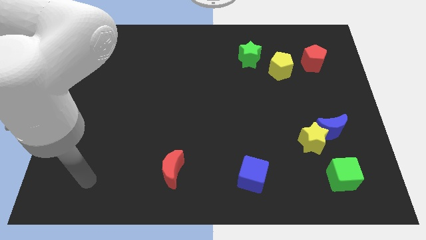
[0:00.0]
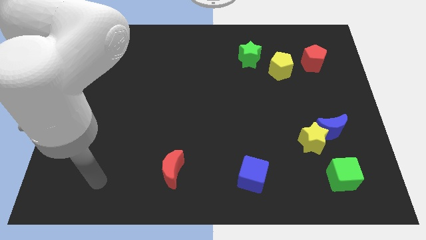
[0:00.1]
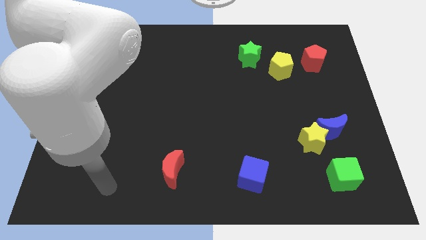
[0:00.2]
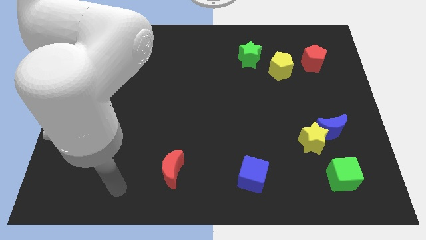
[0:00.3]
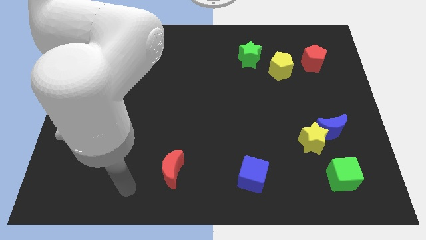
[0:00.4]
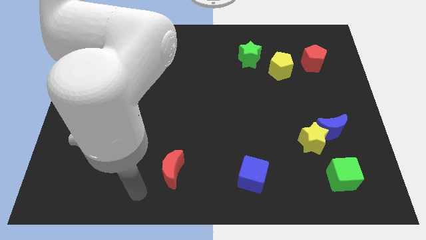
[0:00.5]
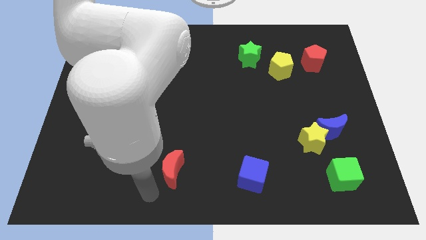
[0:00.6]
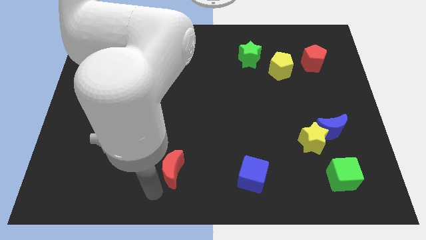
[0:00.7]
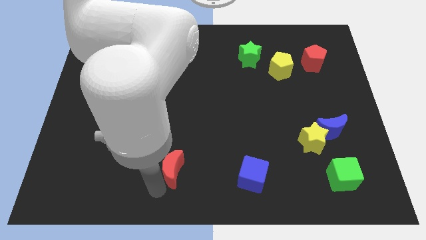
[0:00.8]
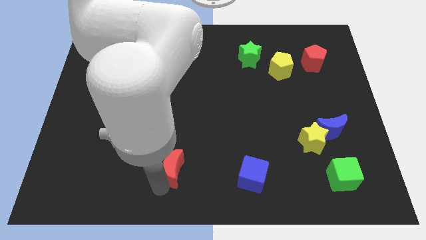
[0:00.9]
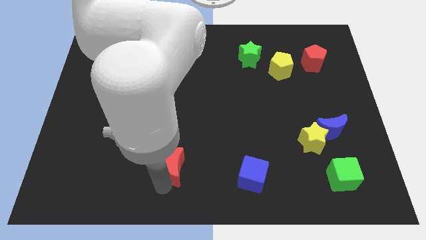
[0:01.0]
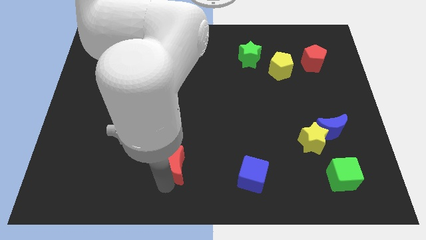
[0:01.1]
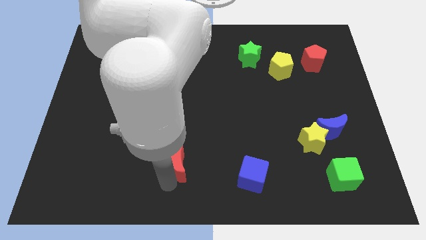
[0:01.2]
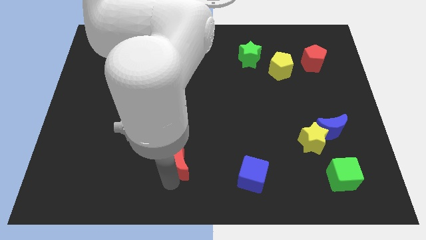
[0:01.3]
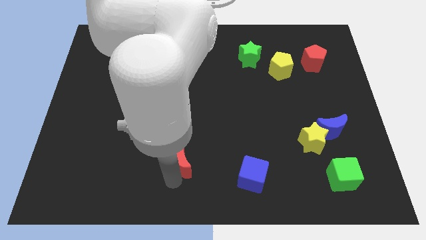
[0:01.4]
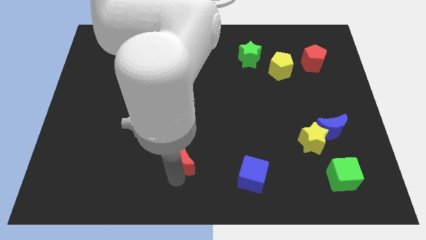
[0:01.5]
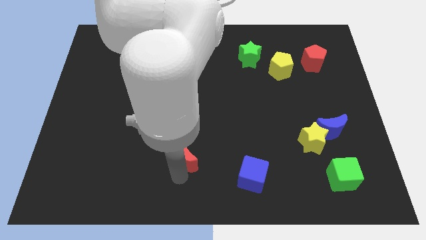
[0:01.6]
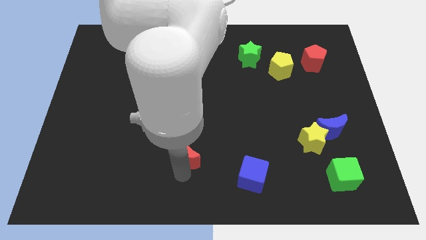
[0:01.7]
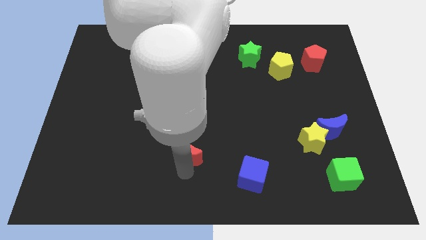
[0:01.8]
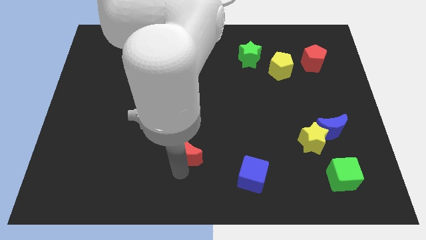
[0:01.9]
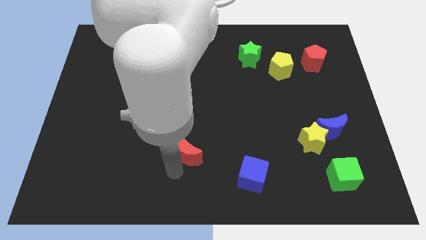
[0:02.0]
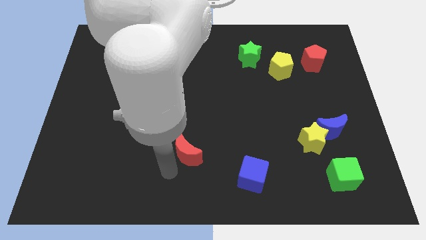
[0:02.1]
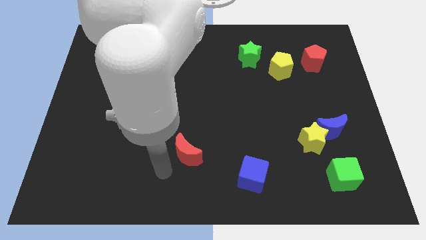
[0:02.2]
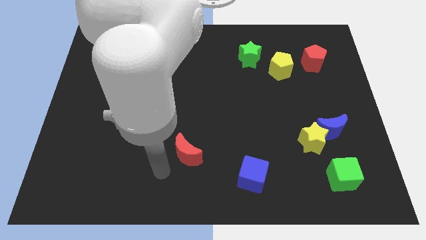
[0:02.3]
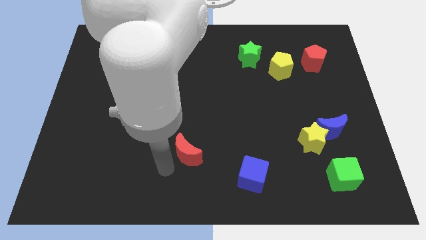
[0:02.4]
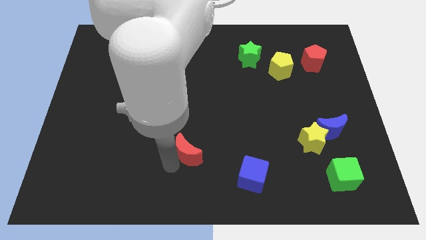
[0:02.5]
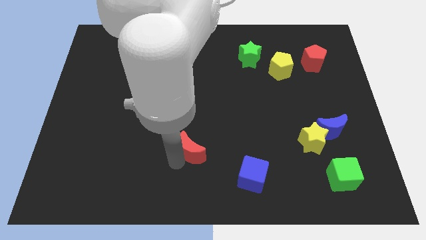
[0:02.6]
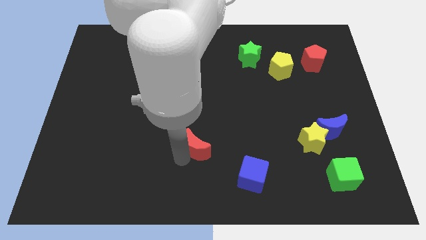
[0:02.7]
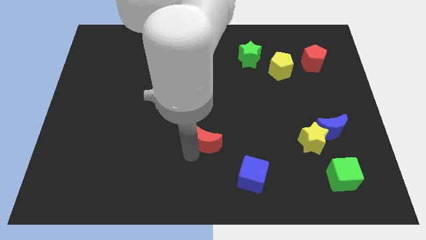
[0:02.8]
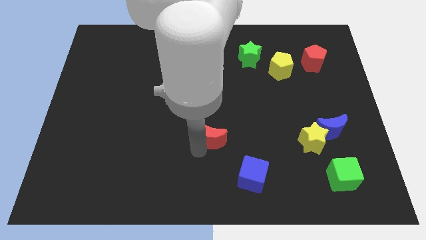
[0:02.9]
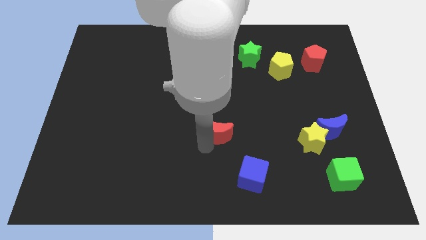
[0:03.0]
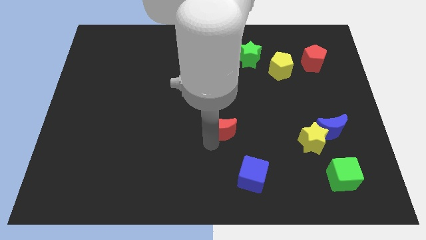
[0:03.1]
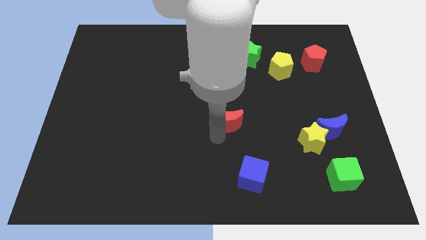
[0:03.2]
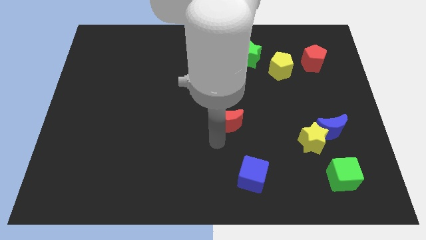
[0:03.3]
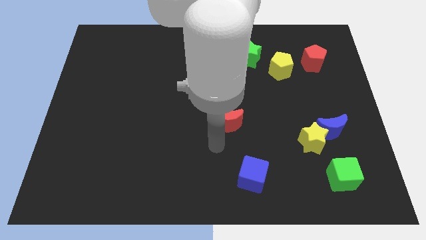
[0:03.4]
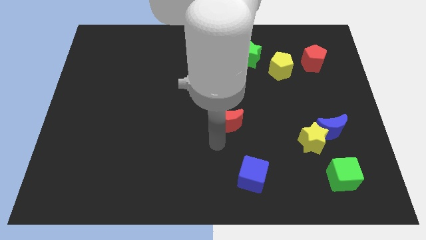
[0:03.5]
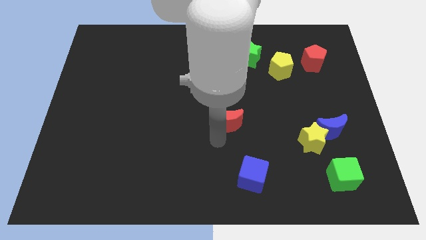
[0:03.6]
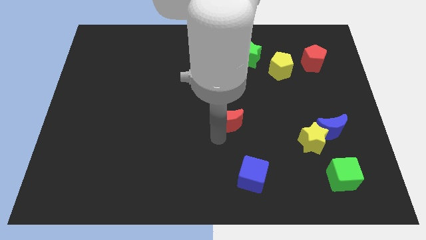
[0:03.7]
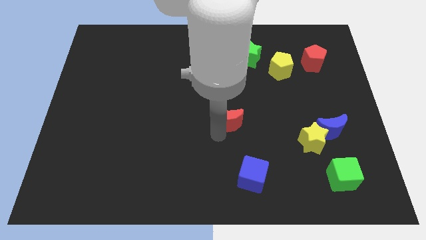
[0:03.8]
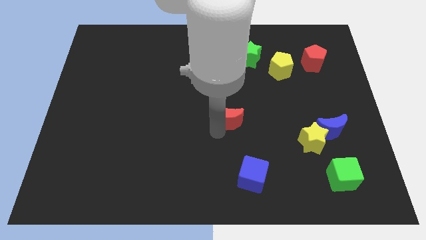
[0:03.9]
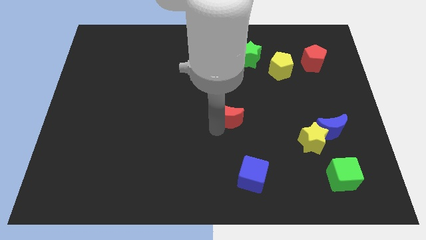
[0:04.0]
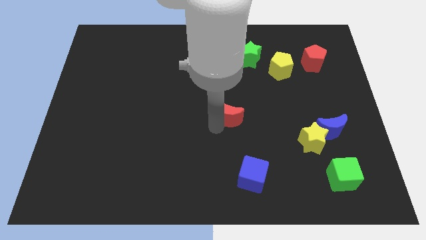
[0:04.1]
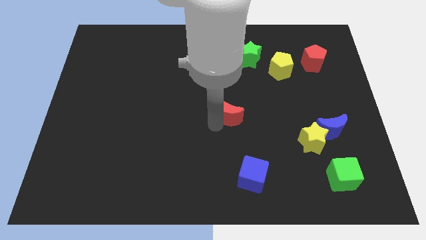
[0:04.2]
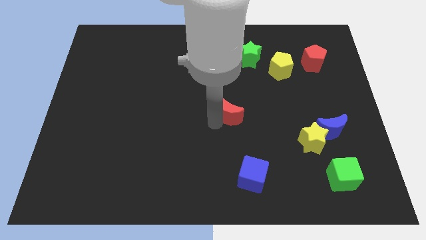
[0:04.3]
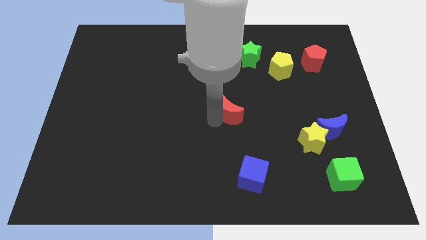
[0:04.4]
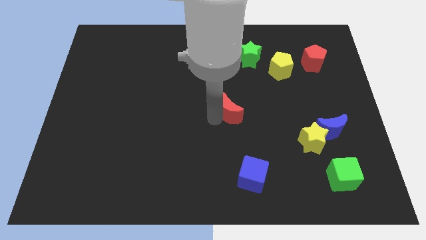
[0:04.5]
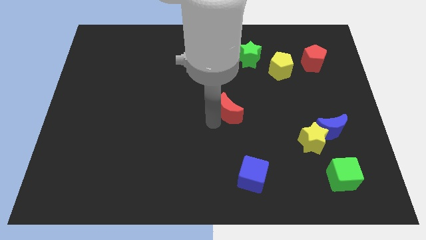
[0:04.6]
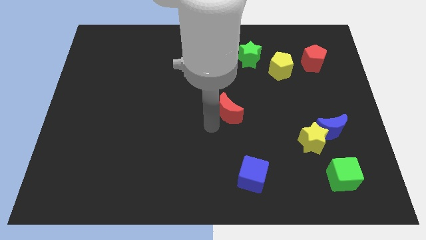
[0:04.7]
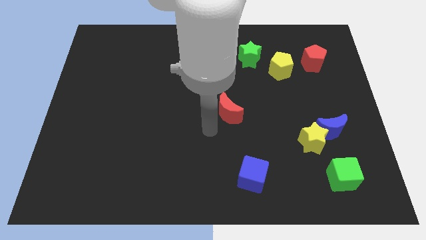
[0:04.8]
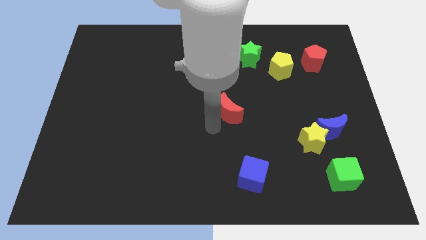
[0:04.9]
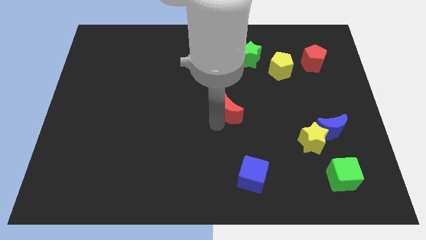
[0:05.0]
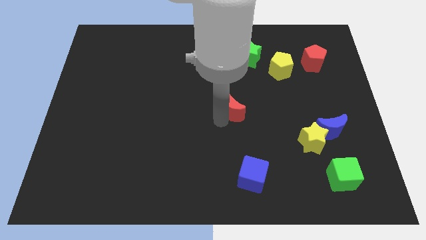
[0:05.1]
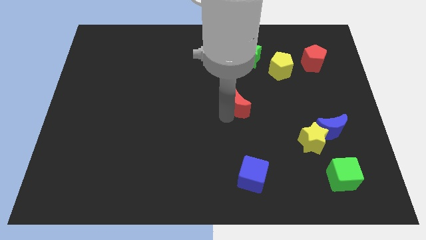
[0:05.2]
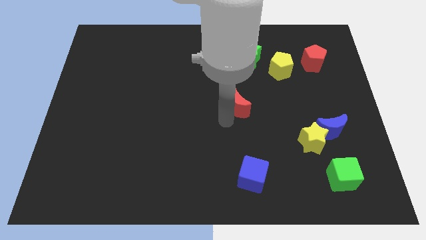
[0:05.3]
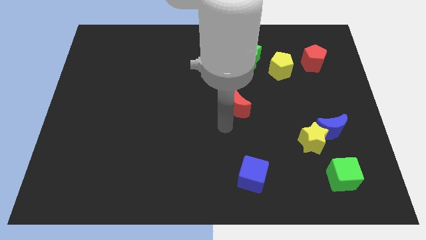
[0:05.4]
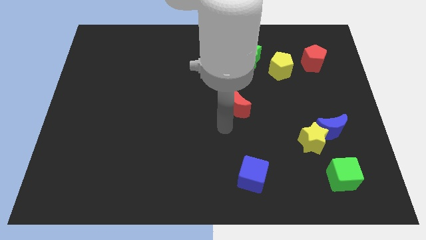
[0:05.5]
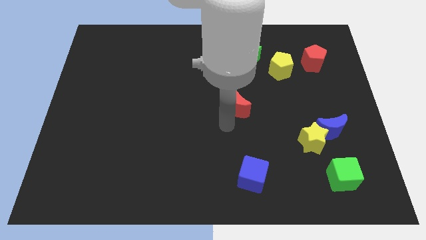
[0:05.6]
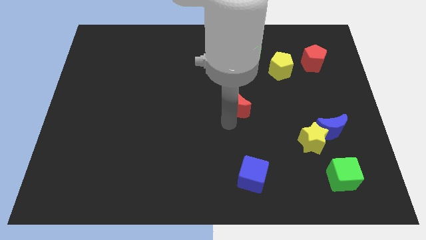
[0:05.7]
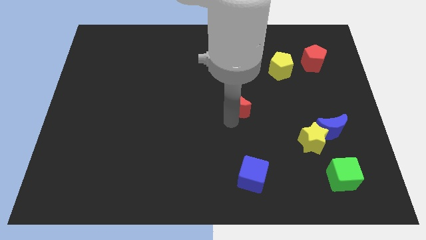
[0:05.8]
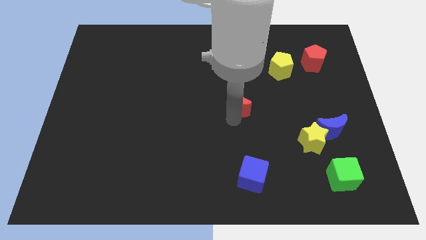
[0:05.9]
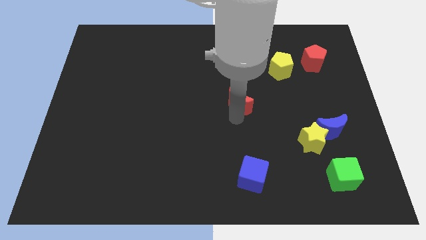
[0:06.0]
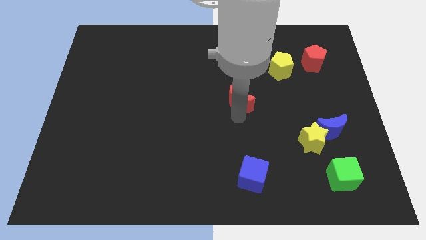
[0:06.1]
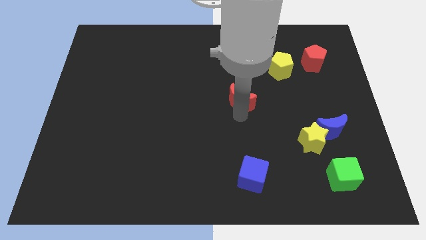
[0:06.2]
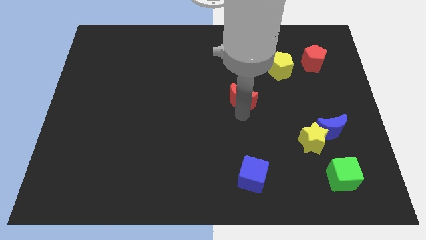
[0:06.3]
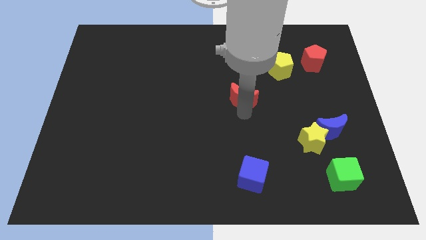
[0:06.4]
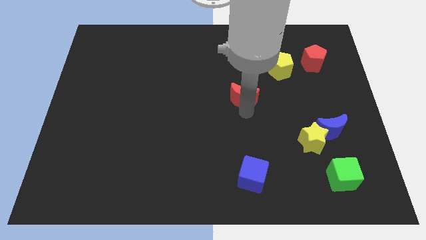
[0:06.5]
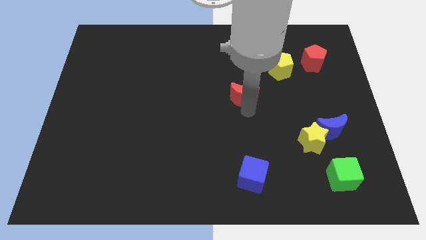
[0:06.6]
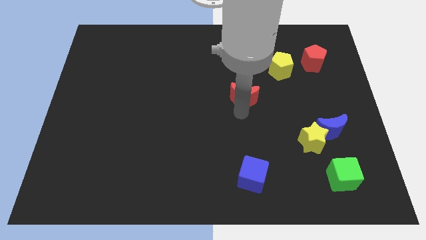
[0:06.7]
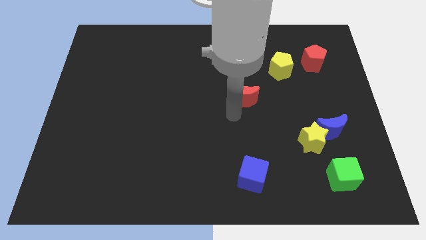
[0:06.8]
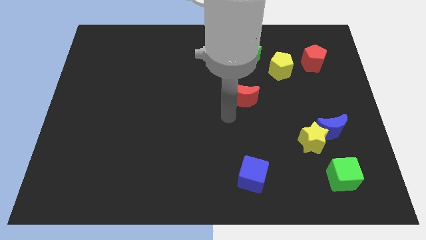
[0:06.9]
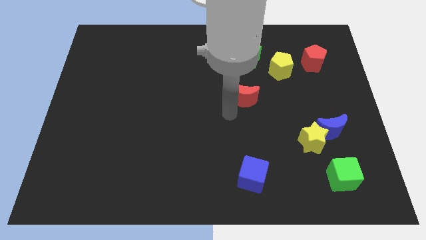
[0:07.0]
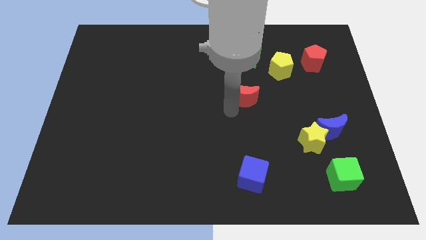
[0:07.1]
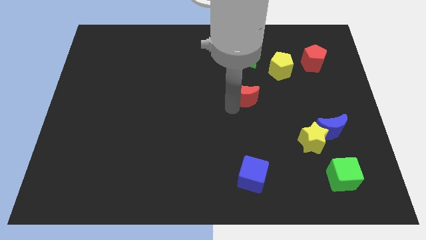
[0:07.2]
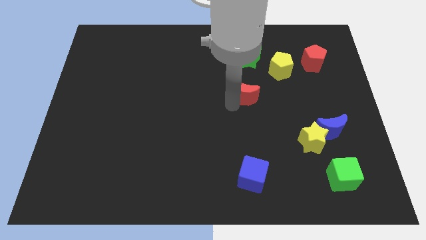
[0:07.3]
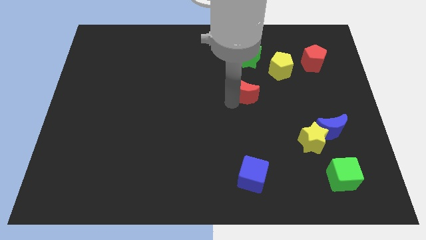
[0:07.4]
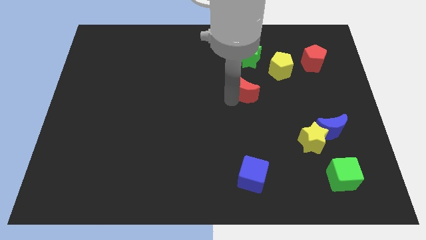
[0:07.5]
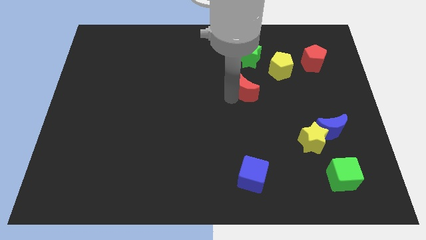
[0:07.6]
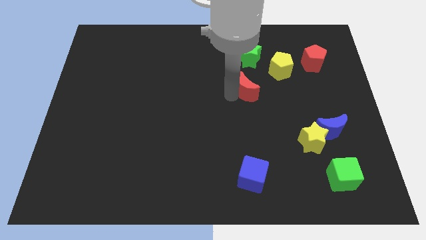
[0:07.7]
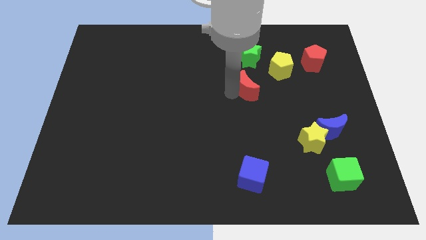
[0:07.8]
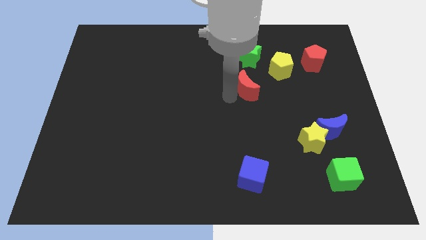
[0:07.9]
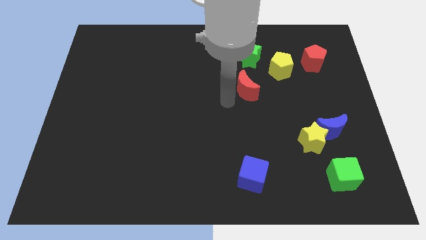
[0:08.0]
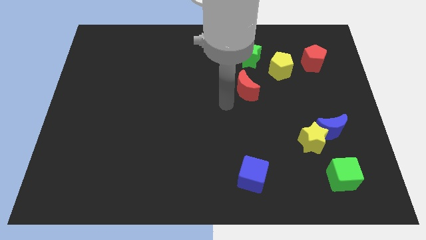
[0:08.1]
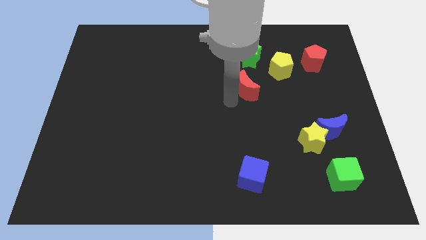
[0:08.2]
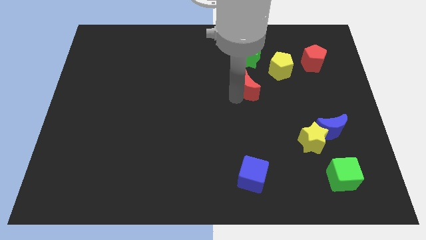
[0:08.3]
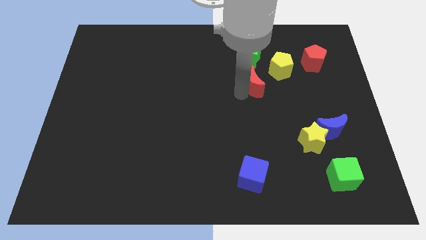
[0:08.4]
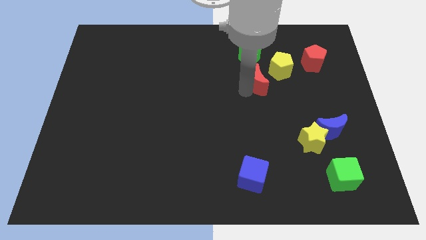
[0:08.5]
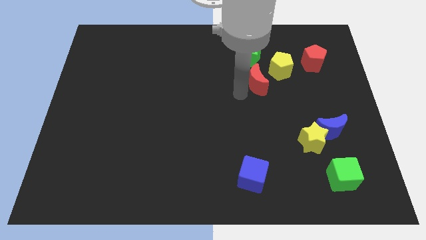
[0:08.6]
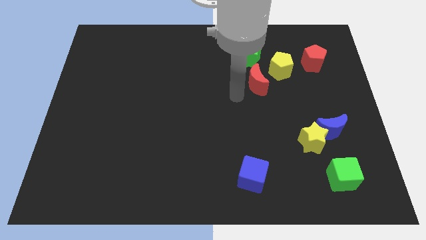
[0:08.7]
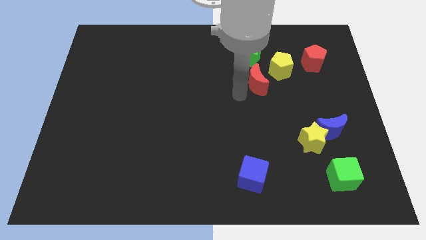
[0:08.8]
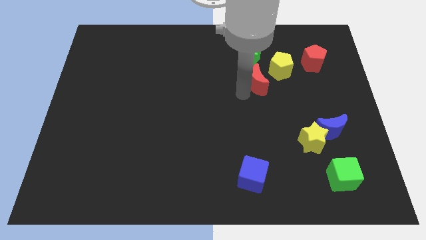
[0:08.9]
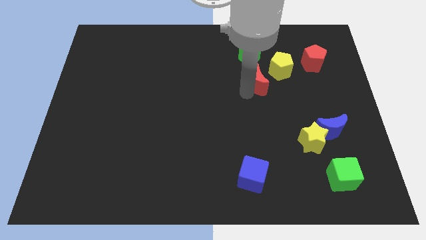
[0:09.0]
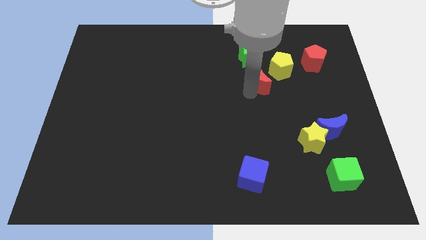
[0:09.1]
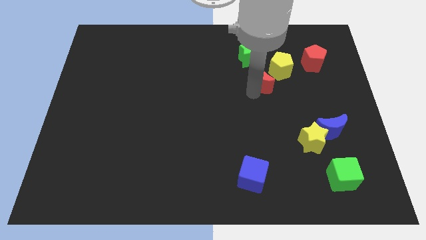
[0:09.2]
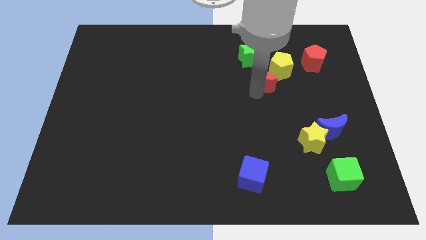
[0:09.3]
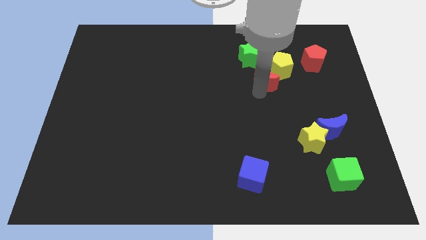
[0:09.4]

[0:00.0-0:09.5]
push the red moon towards the yellow pentagon
